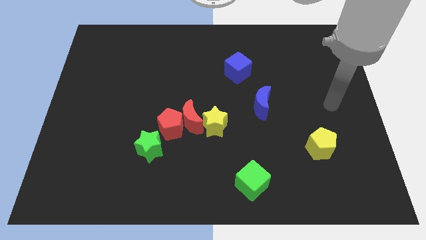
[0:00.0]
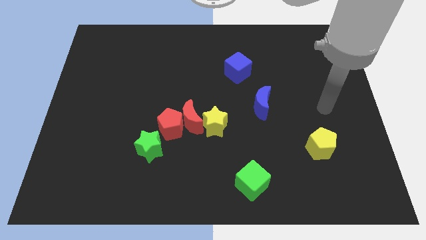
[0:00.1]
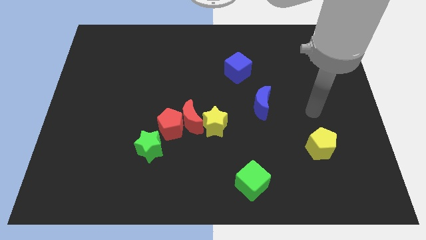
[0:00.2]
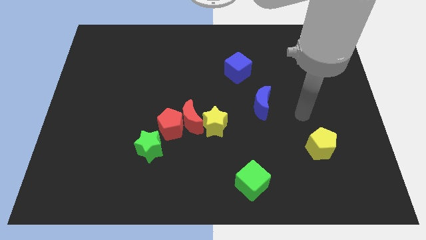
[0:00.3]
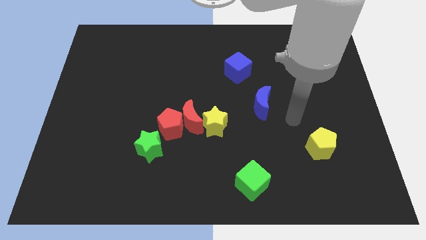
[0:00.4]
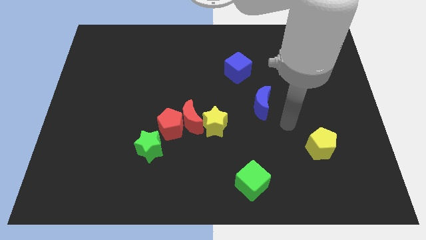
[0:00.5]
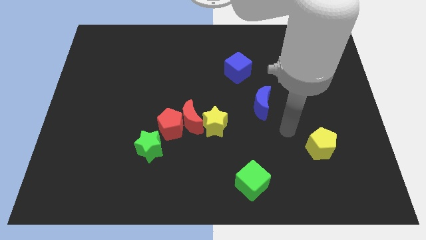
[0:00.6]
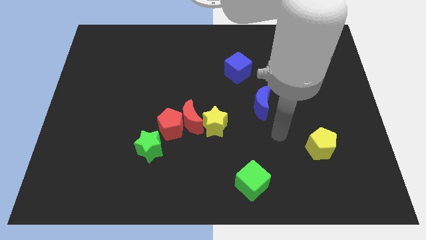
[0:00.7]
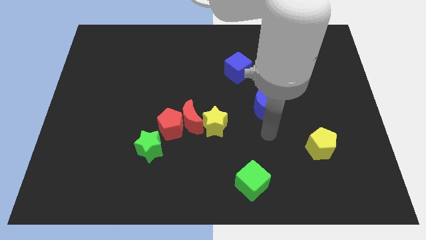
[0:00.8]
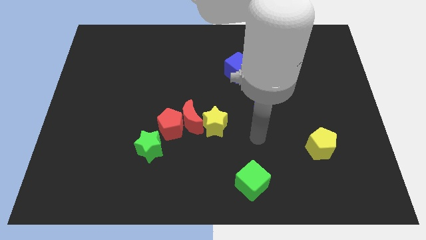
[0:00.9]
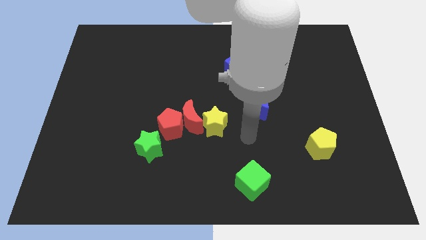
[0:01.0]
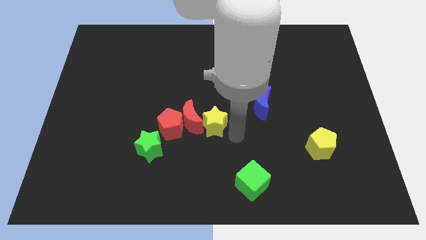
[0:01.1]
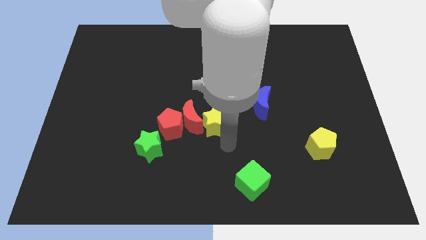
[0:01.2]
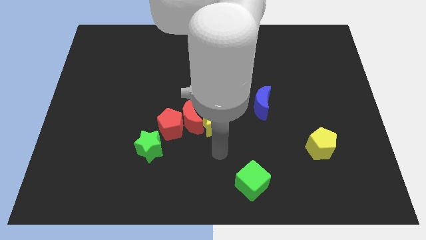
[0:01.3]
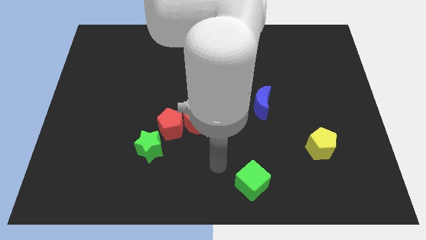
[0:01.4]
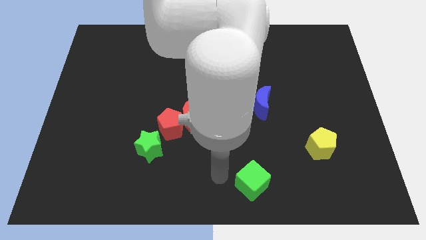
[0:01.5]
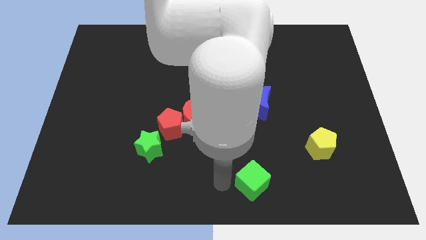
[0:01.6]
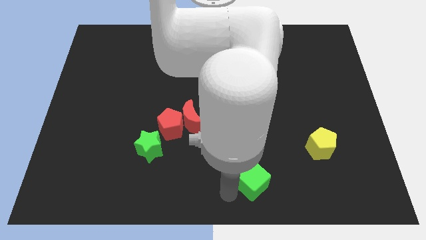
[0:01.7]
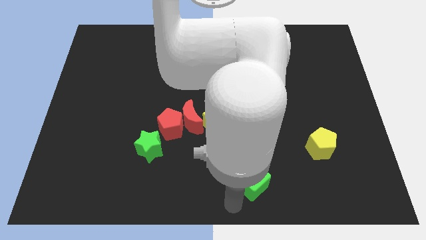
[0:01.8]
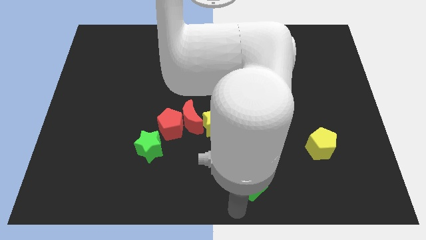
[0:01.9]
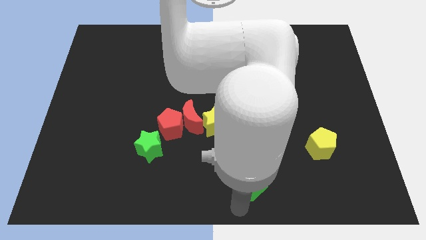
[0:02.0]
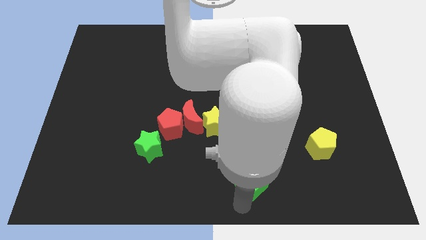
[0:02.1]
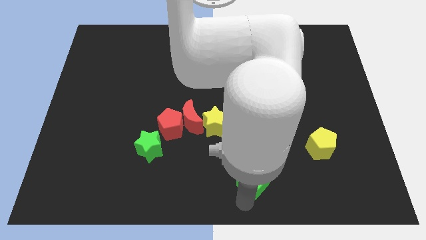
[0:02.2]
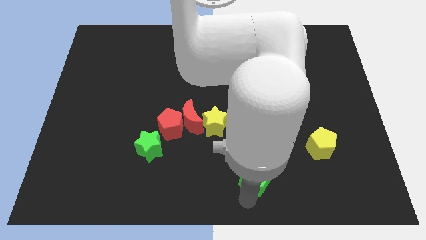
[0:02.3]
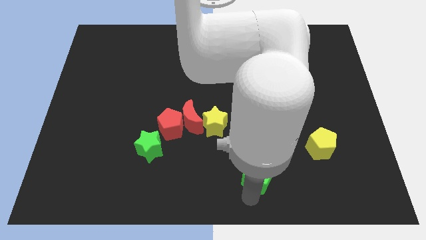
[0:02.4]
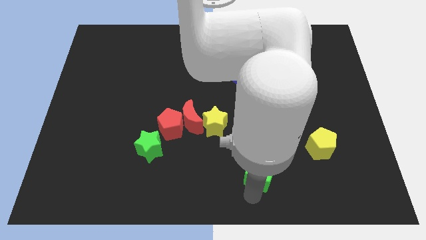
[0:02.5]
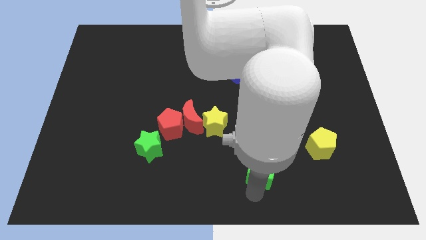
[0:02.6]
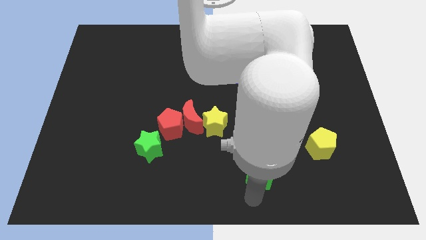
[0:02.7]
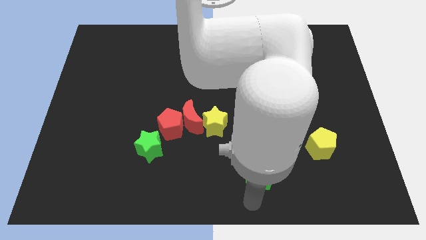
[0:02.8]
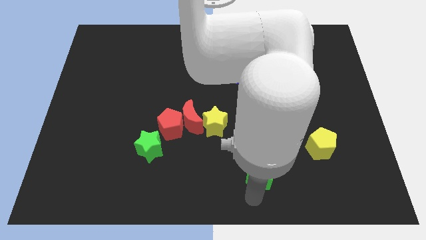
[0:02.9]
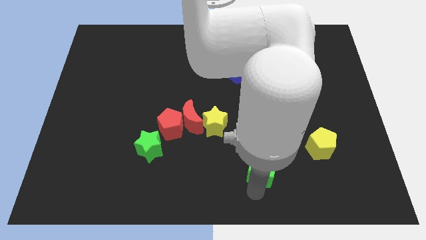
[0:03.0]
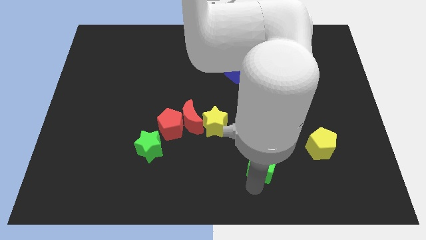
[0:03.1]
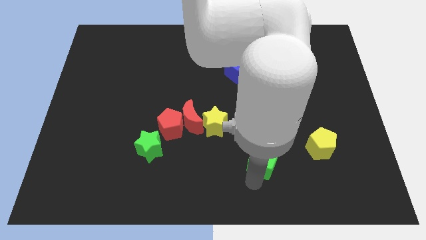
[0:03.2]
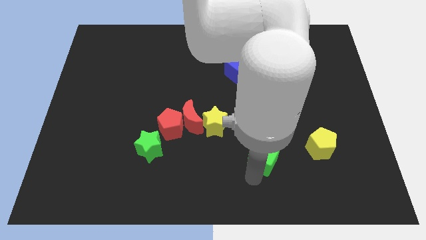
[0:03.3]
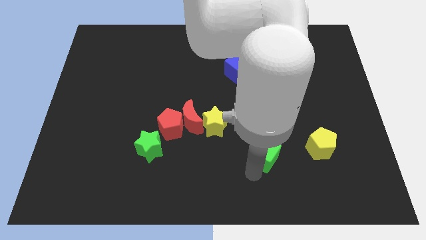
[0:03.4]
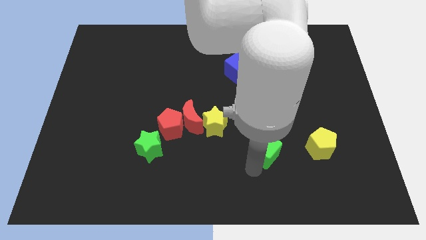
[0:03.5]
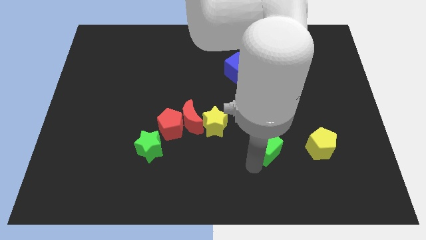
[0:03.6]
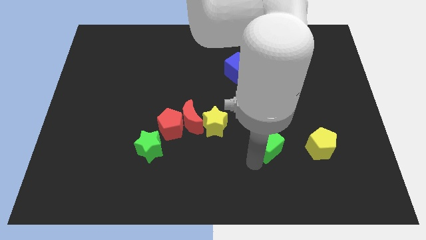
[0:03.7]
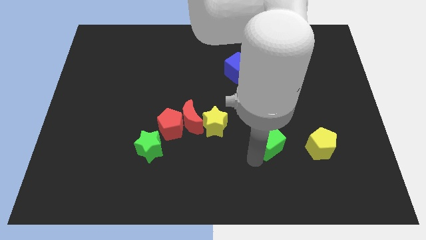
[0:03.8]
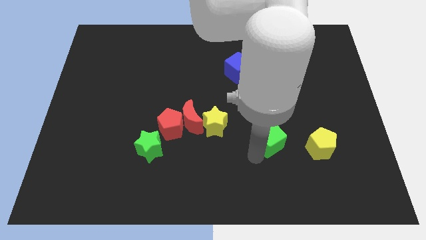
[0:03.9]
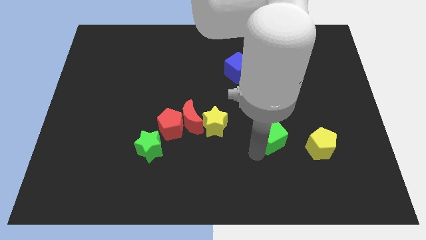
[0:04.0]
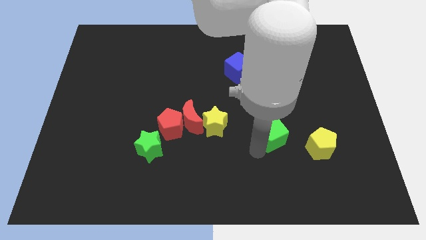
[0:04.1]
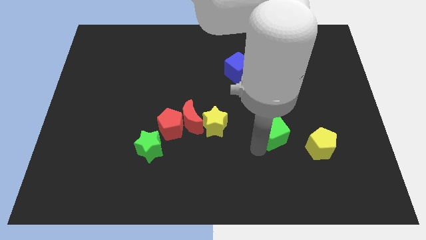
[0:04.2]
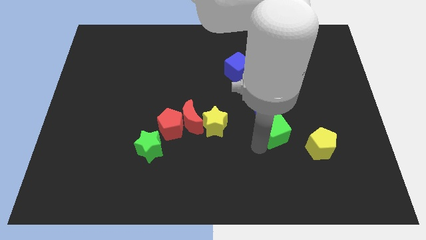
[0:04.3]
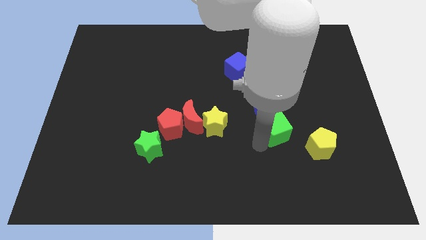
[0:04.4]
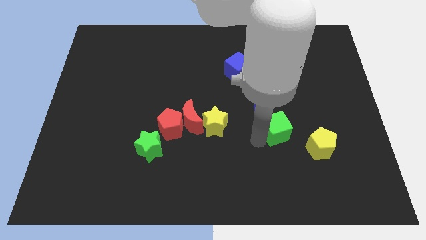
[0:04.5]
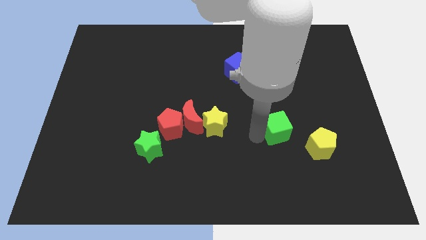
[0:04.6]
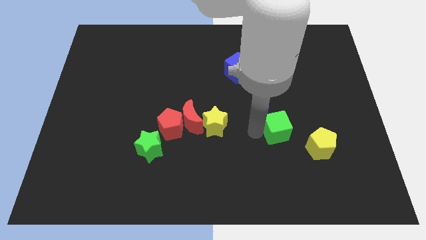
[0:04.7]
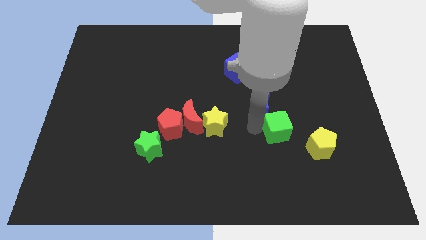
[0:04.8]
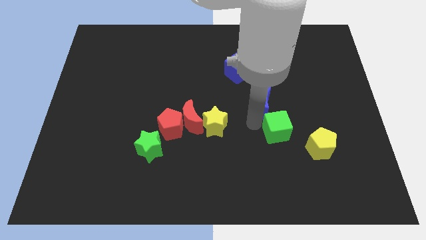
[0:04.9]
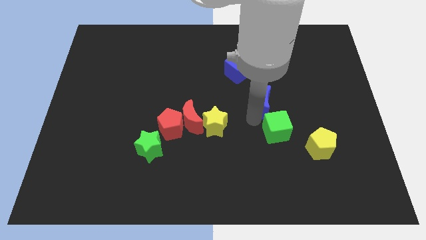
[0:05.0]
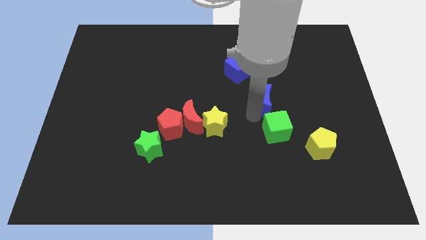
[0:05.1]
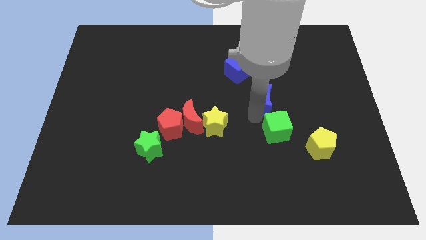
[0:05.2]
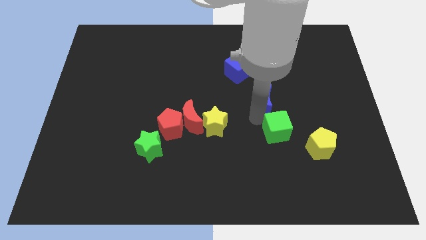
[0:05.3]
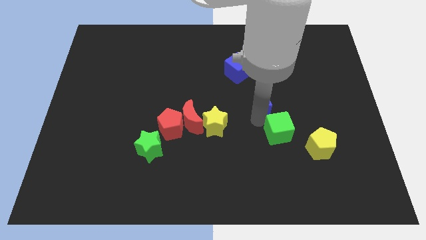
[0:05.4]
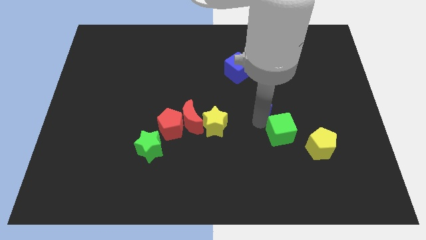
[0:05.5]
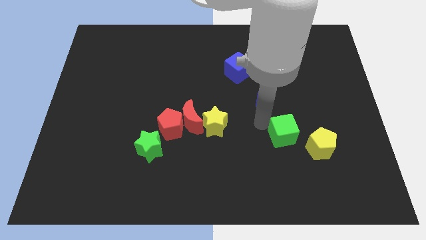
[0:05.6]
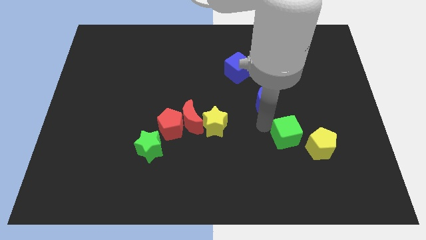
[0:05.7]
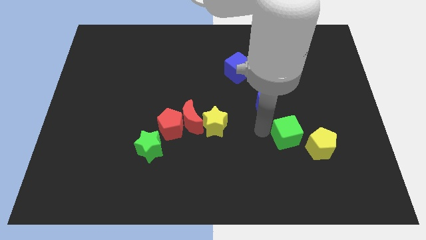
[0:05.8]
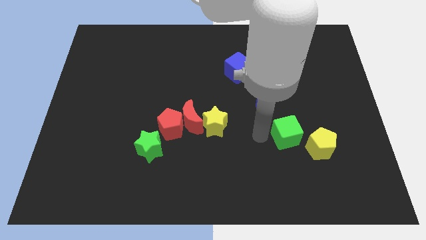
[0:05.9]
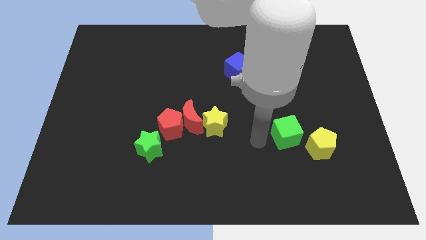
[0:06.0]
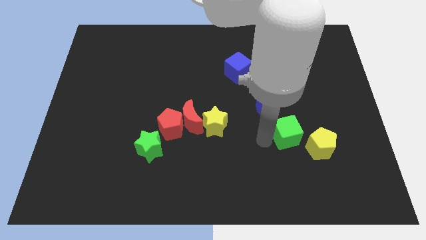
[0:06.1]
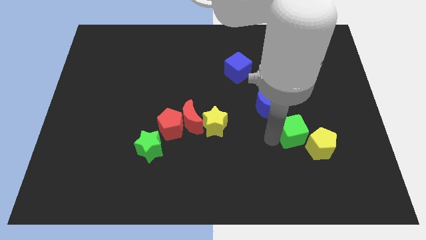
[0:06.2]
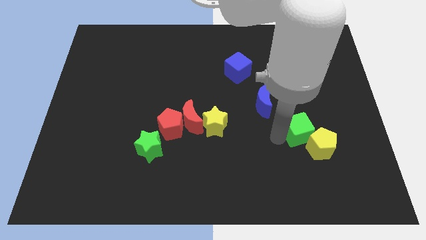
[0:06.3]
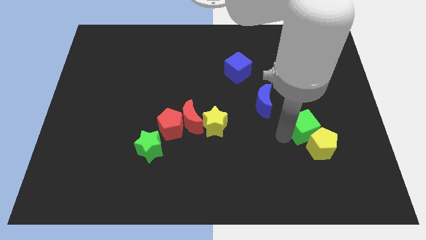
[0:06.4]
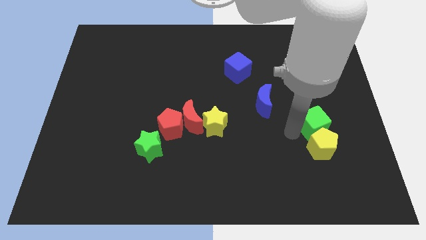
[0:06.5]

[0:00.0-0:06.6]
slide the green cube to the top right side of the yellow pentagon
